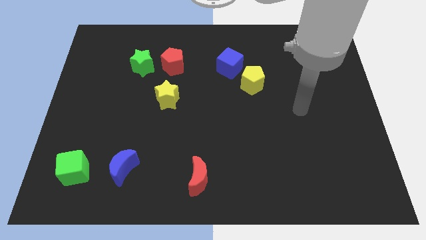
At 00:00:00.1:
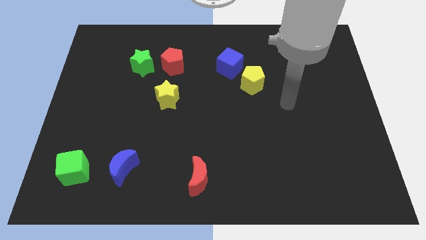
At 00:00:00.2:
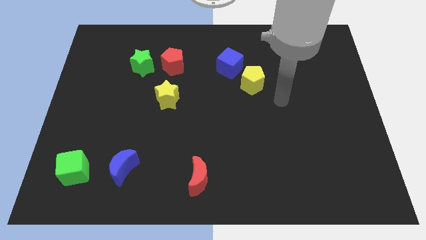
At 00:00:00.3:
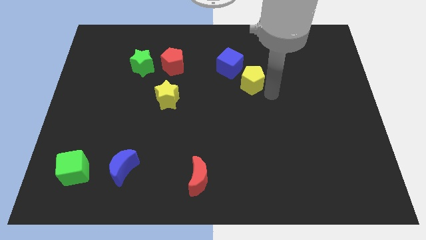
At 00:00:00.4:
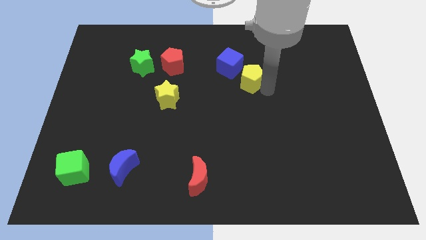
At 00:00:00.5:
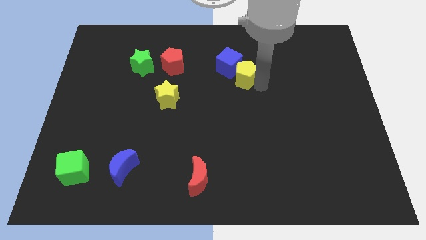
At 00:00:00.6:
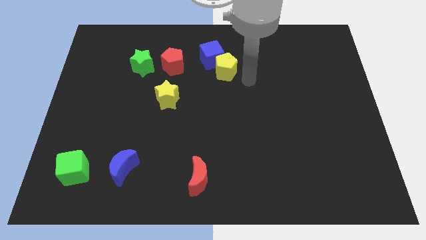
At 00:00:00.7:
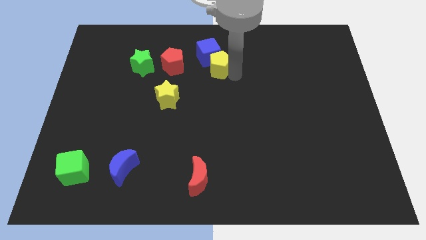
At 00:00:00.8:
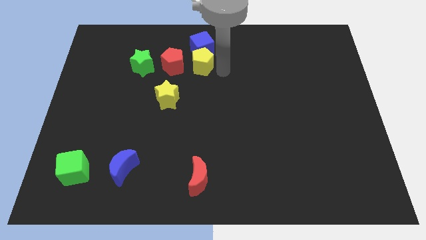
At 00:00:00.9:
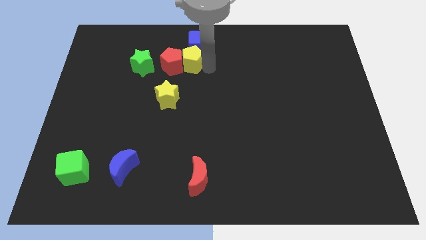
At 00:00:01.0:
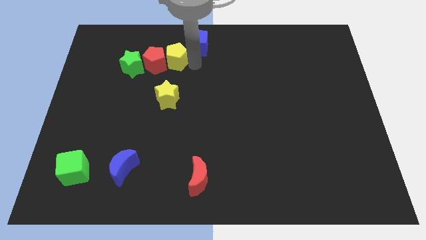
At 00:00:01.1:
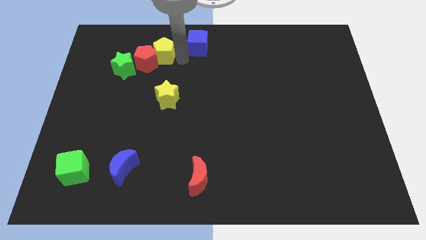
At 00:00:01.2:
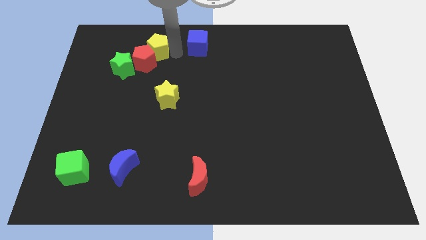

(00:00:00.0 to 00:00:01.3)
pull the blue cube apart from the yellow pentagon

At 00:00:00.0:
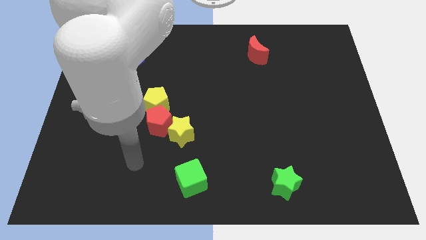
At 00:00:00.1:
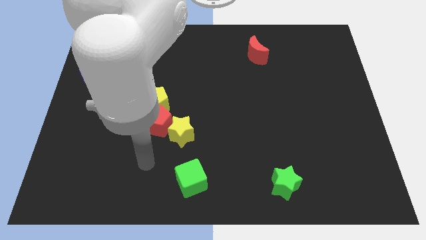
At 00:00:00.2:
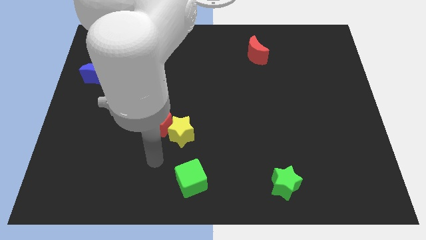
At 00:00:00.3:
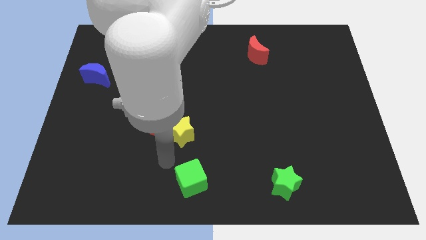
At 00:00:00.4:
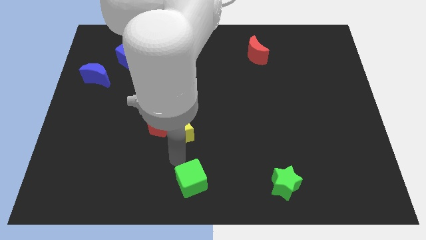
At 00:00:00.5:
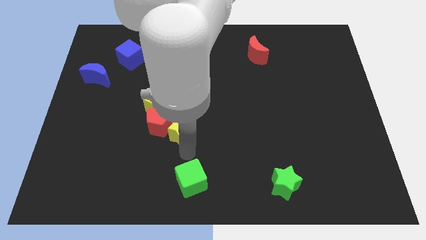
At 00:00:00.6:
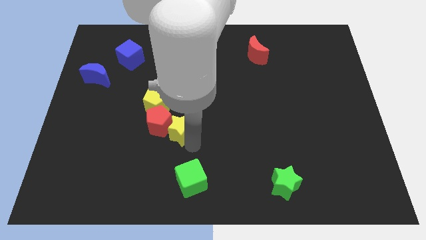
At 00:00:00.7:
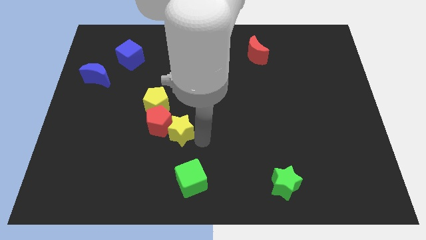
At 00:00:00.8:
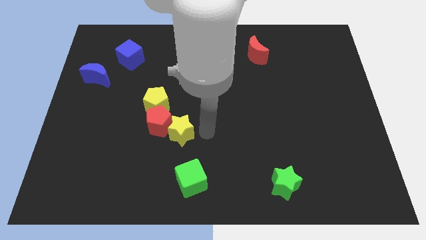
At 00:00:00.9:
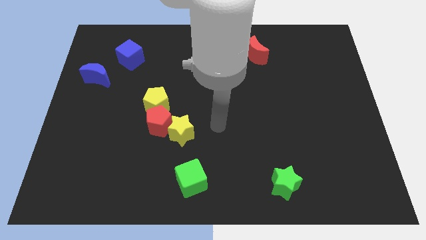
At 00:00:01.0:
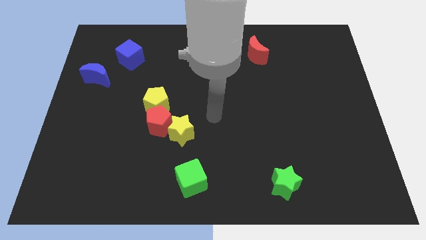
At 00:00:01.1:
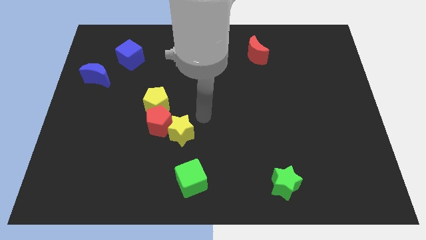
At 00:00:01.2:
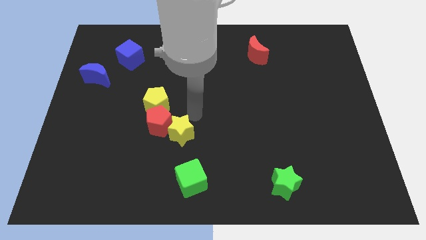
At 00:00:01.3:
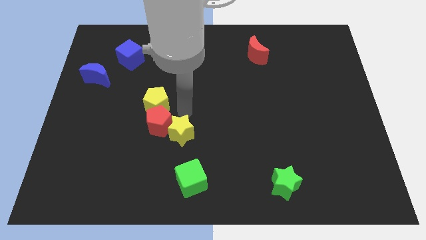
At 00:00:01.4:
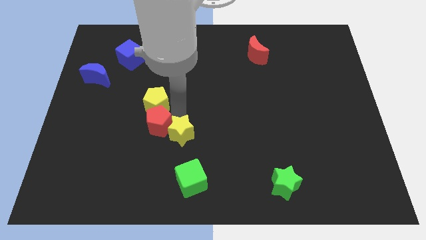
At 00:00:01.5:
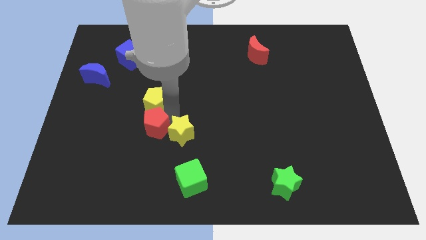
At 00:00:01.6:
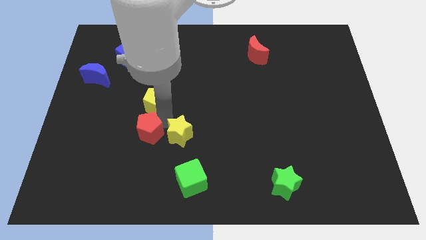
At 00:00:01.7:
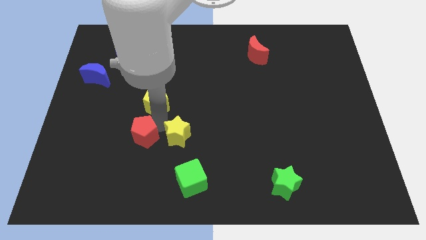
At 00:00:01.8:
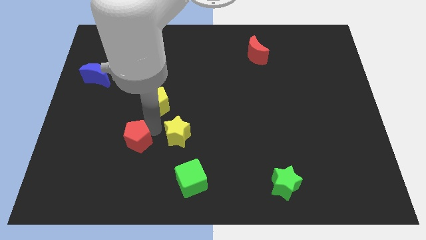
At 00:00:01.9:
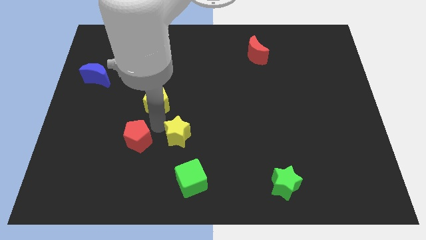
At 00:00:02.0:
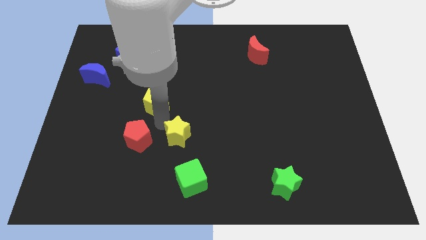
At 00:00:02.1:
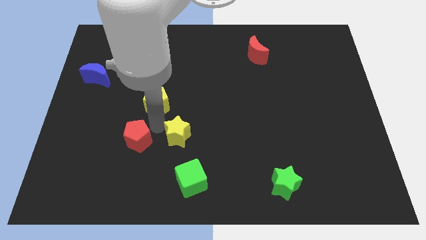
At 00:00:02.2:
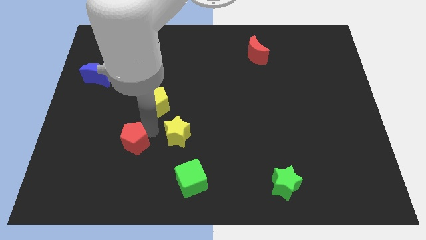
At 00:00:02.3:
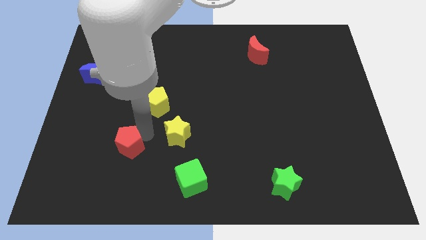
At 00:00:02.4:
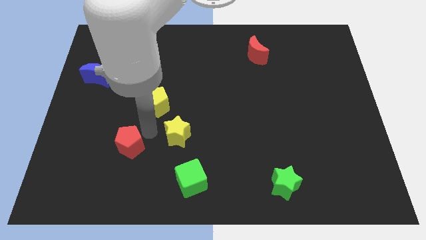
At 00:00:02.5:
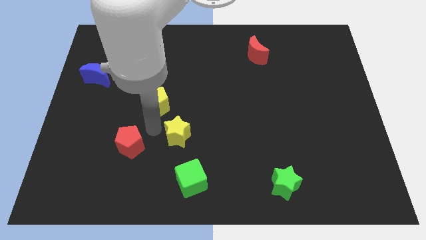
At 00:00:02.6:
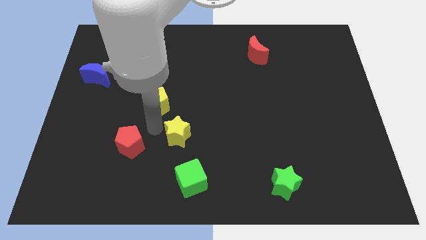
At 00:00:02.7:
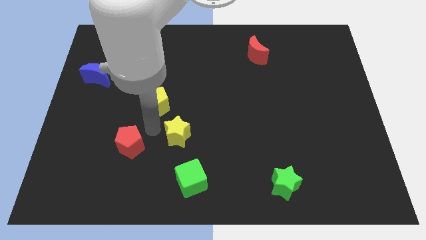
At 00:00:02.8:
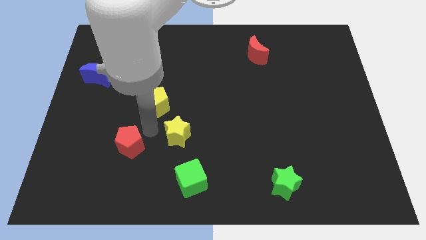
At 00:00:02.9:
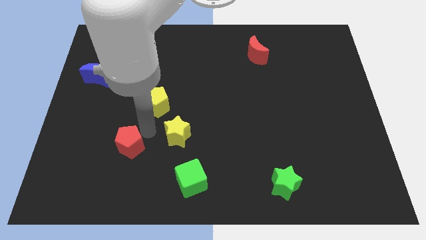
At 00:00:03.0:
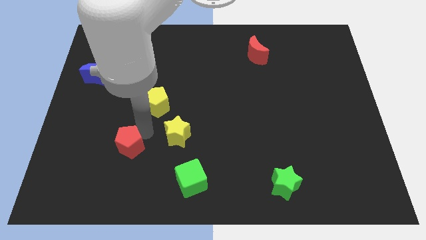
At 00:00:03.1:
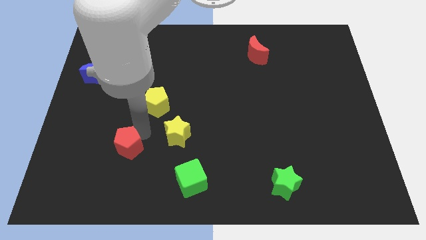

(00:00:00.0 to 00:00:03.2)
separate the red pentagon from the yellow pentagon and yellow star

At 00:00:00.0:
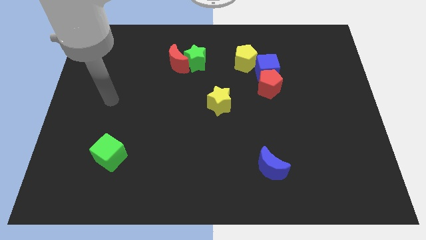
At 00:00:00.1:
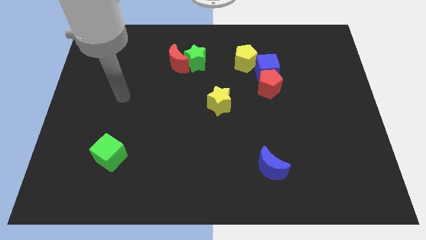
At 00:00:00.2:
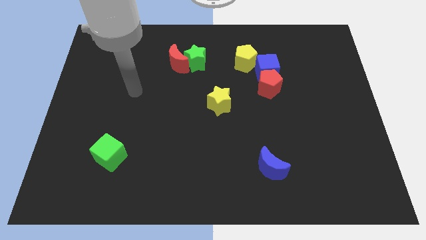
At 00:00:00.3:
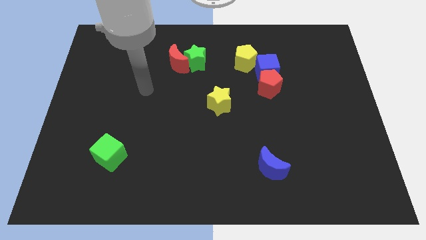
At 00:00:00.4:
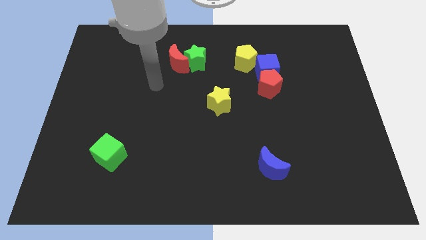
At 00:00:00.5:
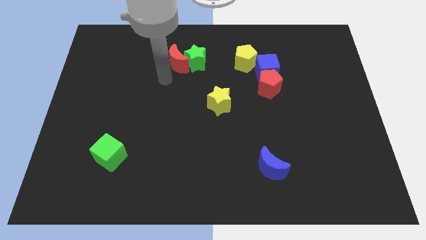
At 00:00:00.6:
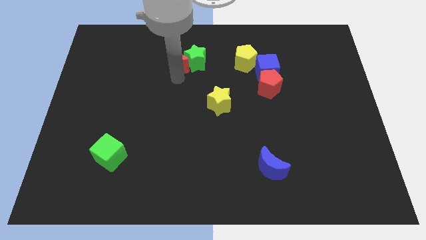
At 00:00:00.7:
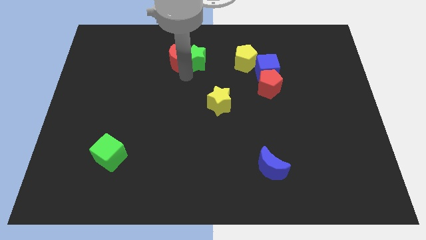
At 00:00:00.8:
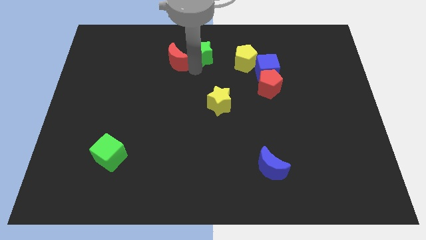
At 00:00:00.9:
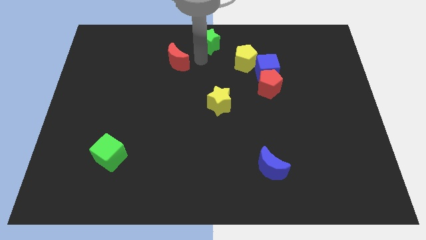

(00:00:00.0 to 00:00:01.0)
separate the red moon from the green star

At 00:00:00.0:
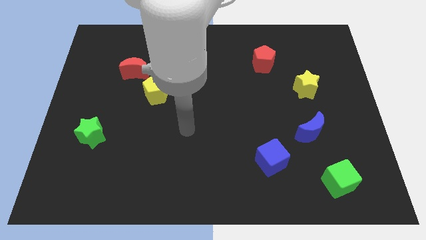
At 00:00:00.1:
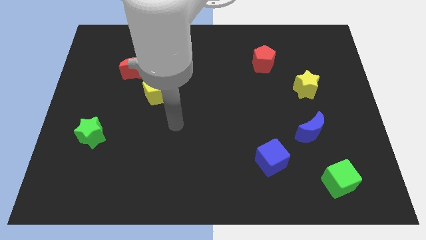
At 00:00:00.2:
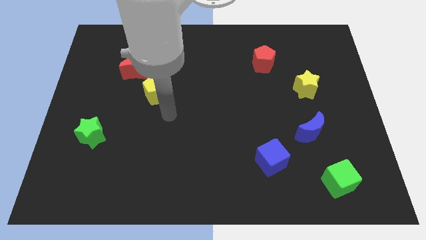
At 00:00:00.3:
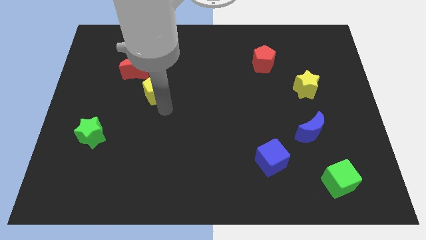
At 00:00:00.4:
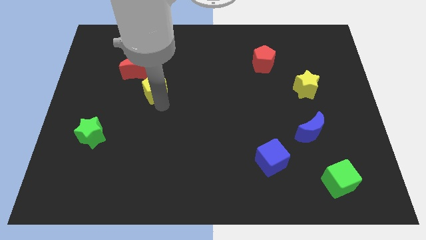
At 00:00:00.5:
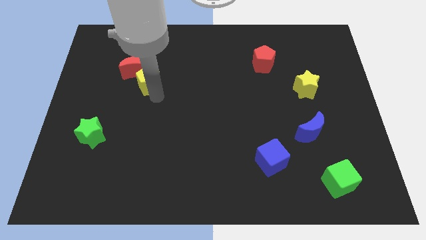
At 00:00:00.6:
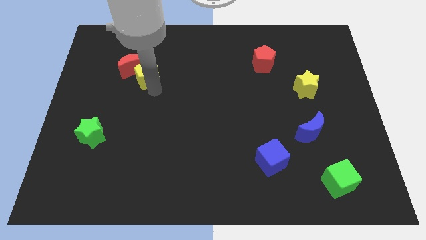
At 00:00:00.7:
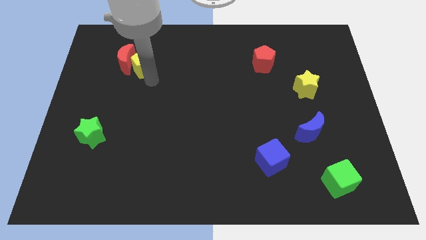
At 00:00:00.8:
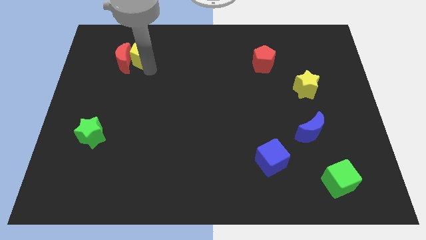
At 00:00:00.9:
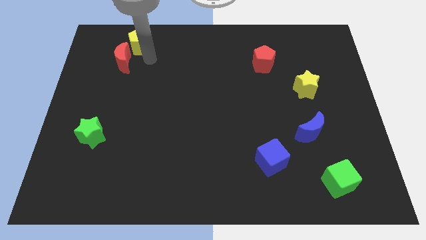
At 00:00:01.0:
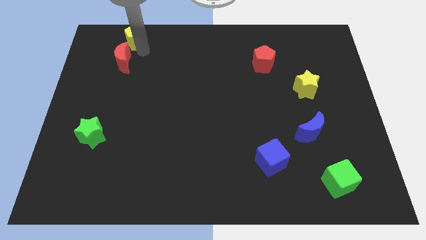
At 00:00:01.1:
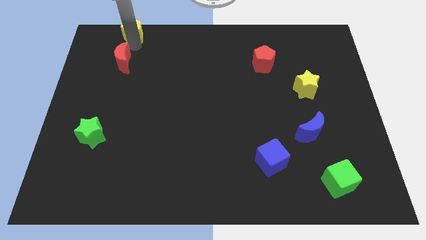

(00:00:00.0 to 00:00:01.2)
separate the red moon from the yellow pentagon

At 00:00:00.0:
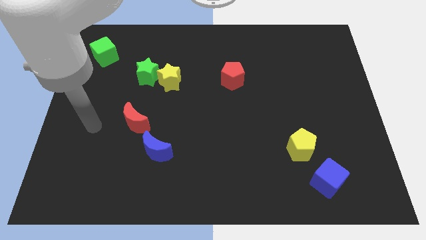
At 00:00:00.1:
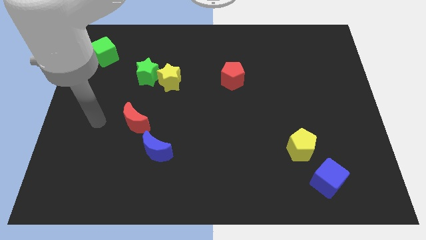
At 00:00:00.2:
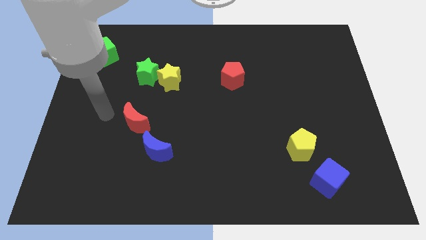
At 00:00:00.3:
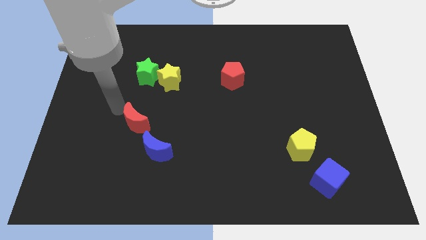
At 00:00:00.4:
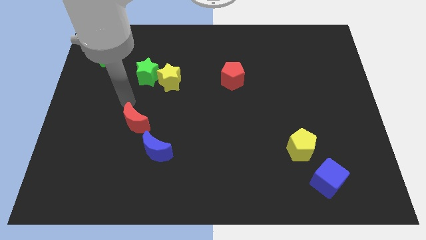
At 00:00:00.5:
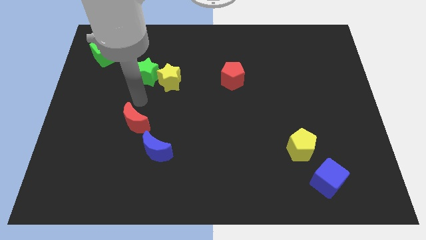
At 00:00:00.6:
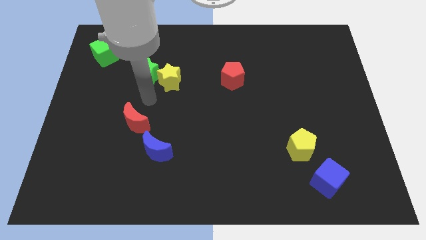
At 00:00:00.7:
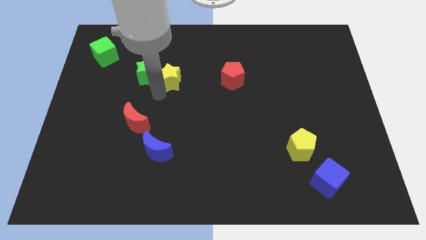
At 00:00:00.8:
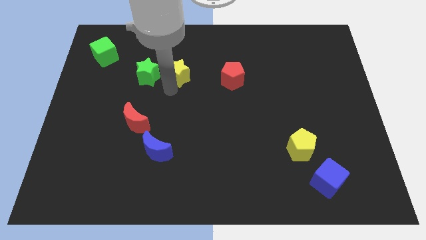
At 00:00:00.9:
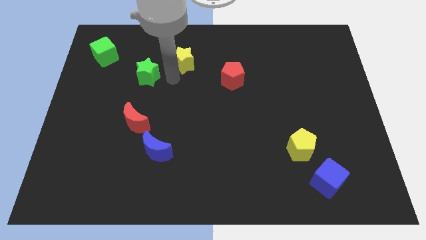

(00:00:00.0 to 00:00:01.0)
separate the green star from the yellow star

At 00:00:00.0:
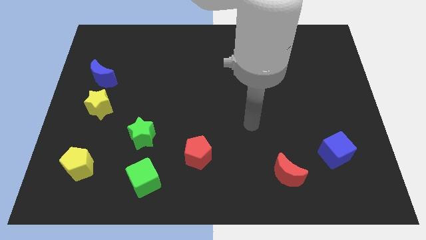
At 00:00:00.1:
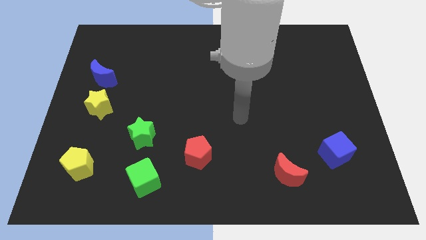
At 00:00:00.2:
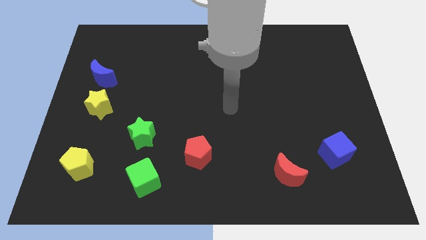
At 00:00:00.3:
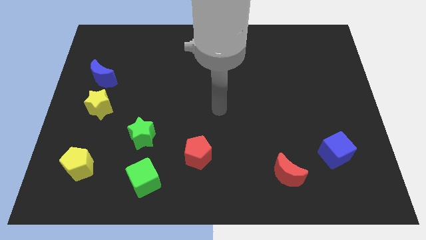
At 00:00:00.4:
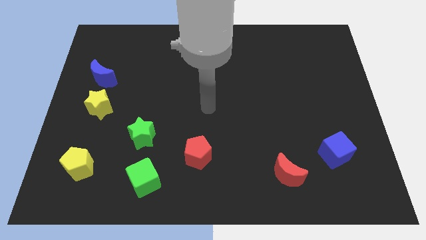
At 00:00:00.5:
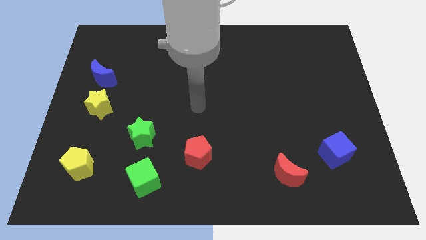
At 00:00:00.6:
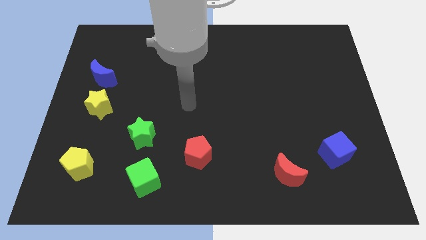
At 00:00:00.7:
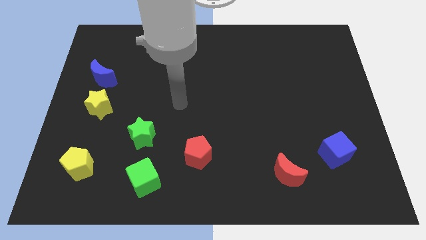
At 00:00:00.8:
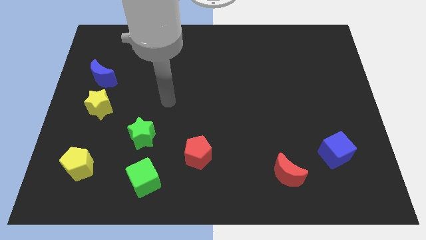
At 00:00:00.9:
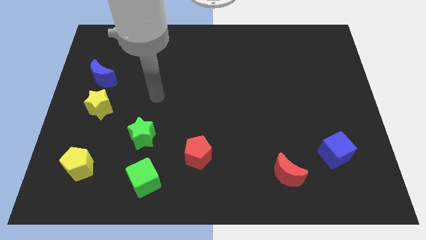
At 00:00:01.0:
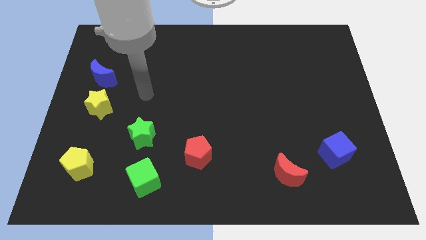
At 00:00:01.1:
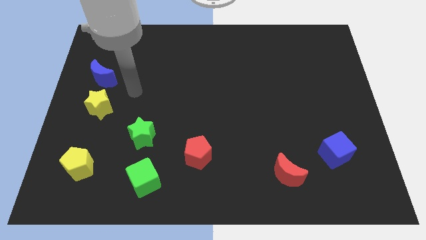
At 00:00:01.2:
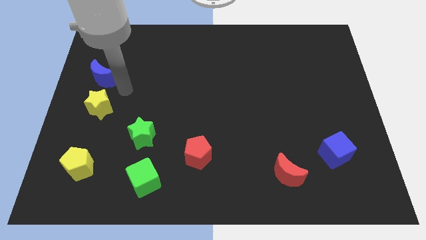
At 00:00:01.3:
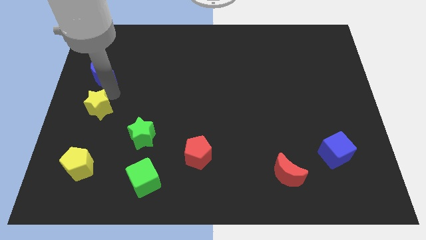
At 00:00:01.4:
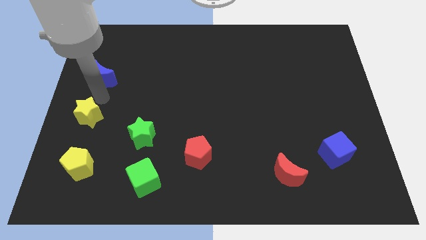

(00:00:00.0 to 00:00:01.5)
pull the blue moon apart from the yellow star
